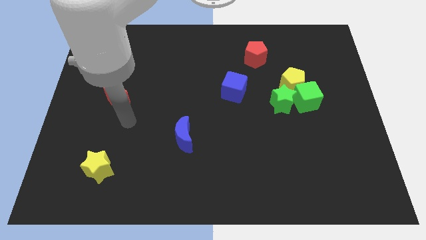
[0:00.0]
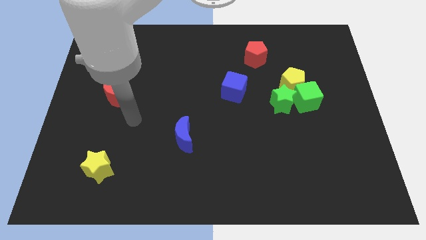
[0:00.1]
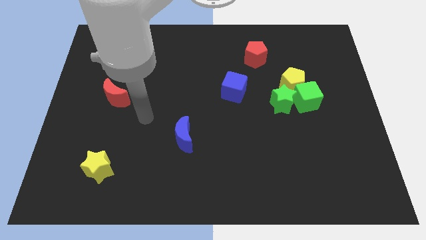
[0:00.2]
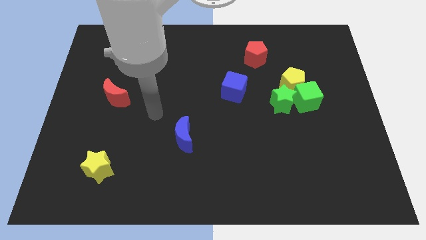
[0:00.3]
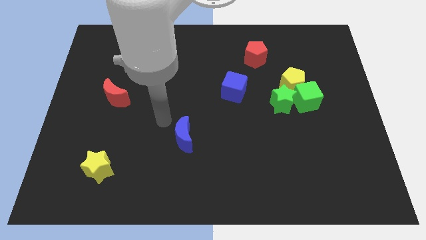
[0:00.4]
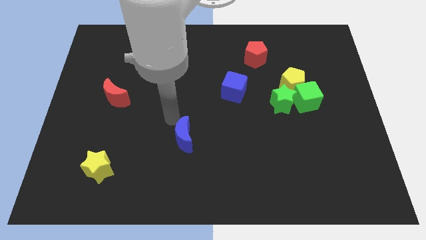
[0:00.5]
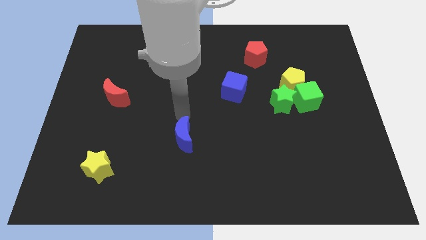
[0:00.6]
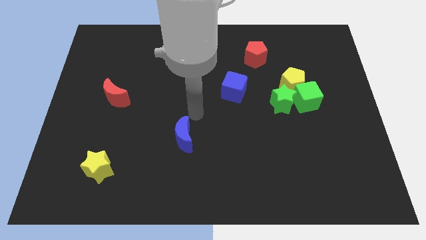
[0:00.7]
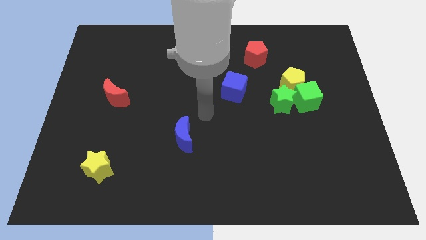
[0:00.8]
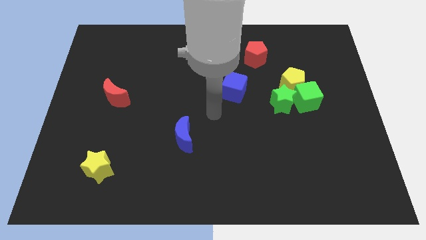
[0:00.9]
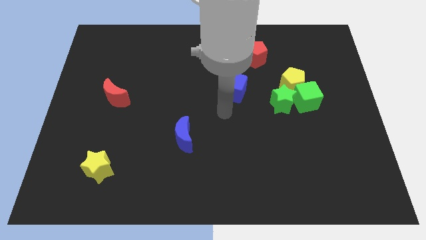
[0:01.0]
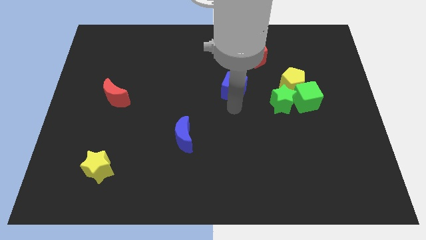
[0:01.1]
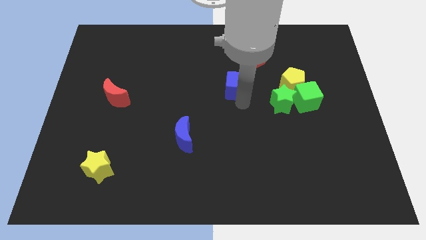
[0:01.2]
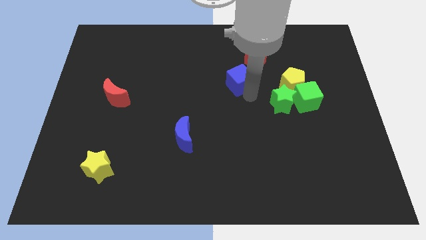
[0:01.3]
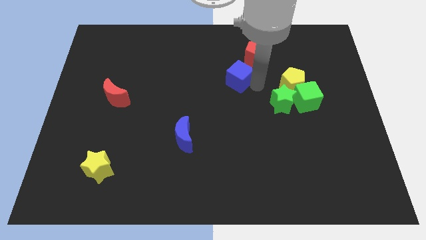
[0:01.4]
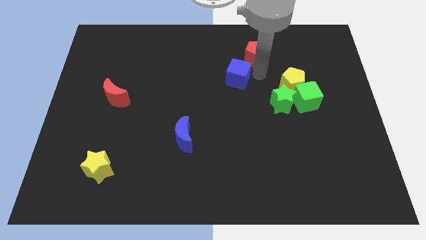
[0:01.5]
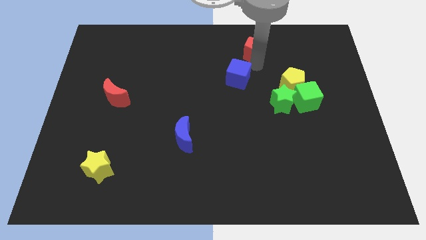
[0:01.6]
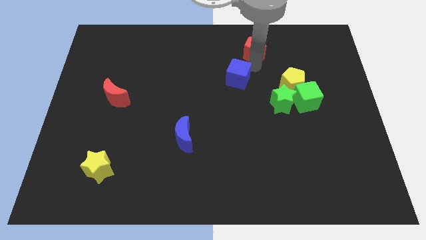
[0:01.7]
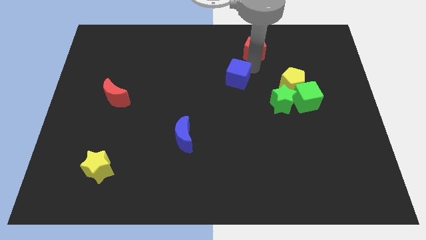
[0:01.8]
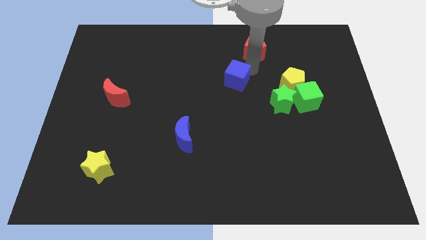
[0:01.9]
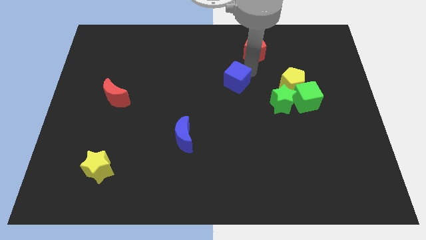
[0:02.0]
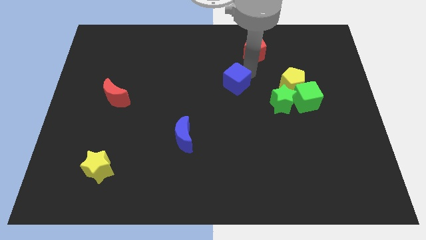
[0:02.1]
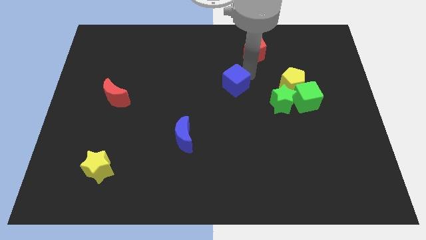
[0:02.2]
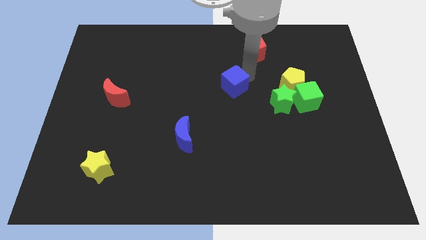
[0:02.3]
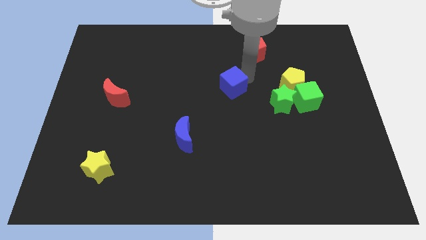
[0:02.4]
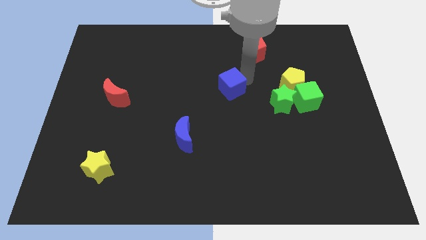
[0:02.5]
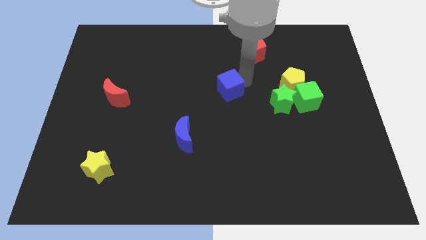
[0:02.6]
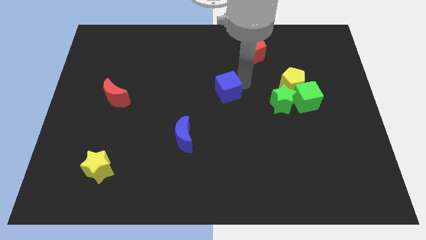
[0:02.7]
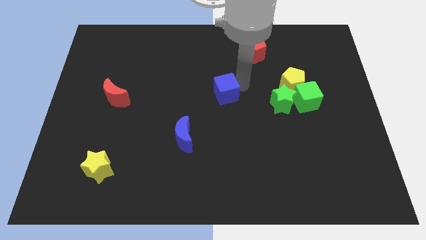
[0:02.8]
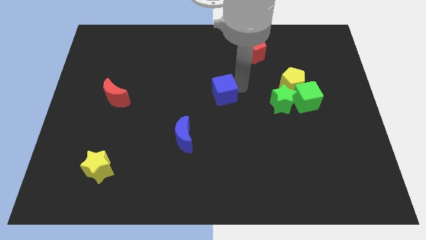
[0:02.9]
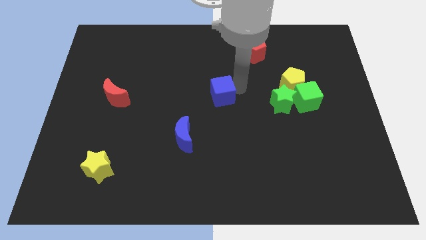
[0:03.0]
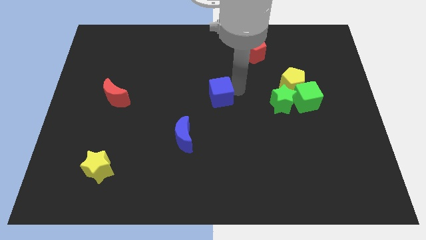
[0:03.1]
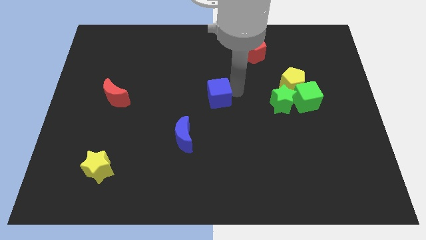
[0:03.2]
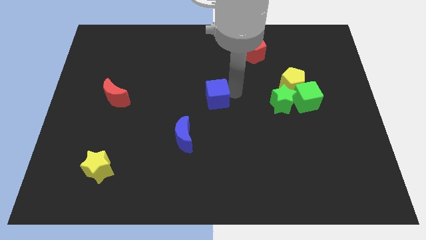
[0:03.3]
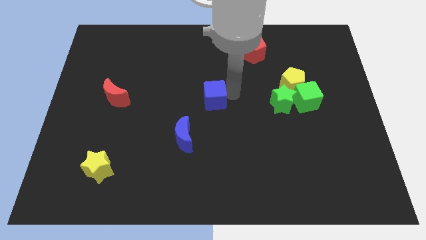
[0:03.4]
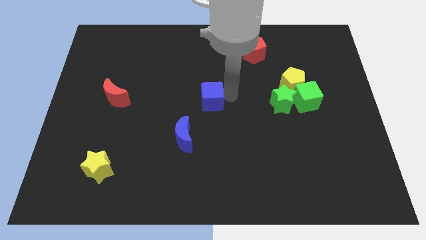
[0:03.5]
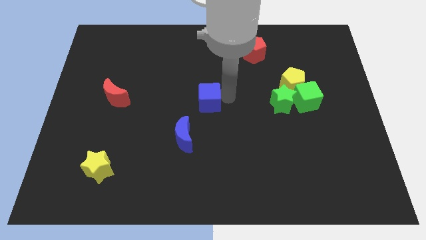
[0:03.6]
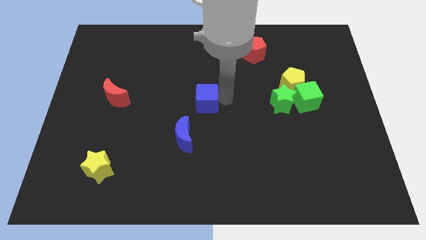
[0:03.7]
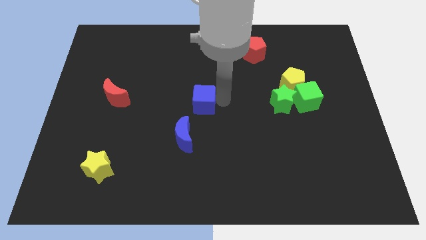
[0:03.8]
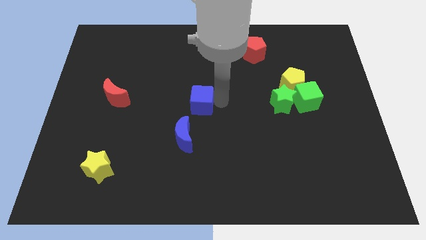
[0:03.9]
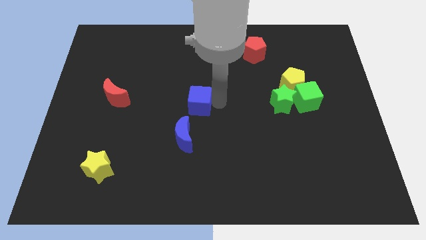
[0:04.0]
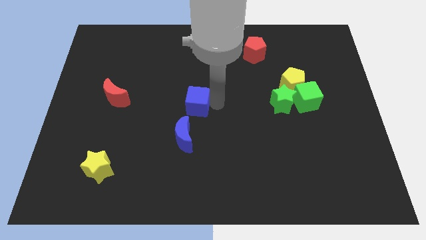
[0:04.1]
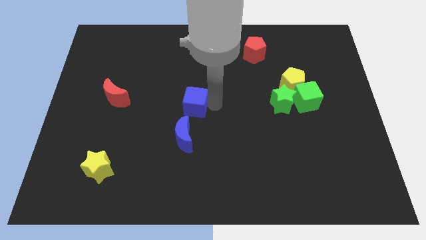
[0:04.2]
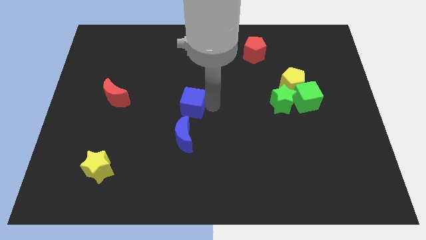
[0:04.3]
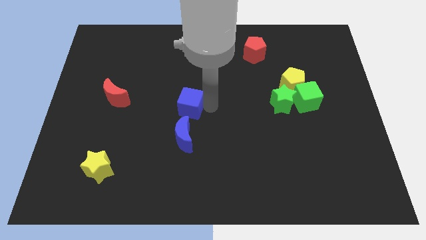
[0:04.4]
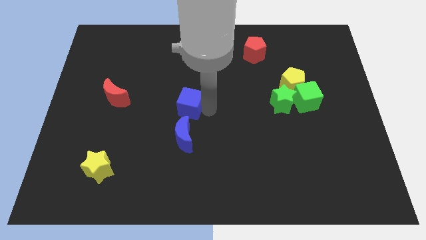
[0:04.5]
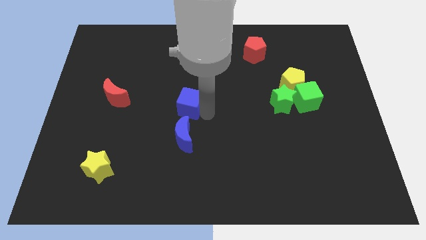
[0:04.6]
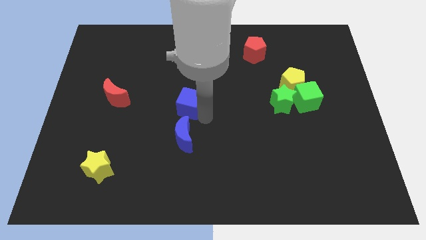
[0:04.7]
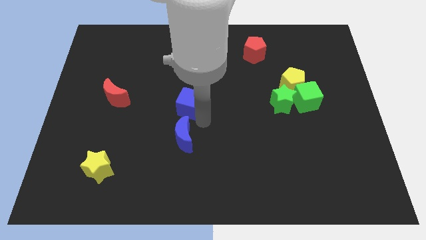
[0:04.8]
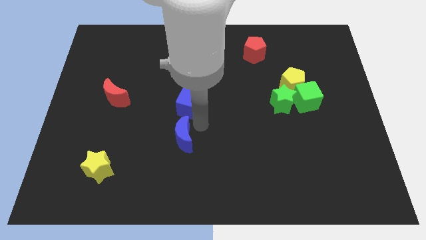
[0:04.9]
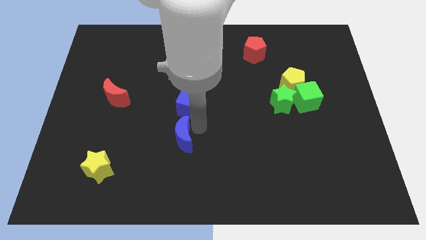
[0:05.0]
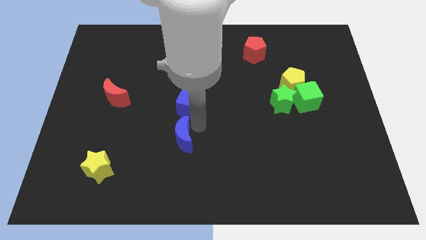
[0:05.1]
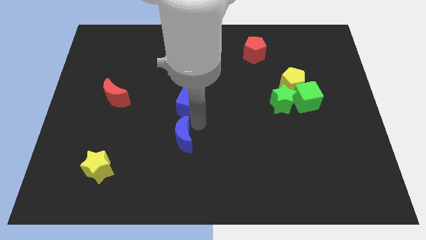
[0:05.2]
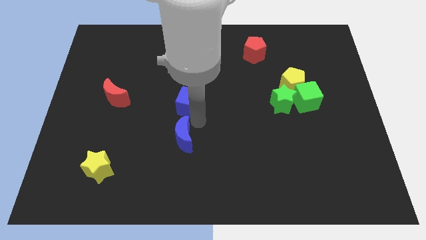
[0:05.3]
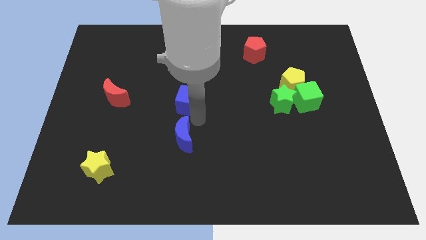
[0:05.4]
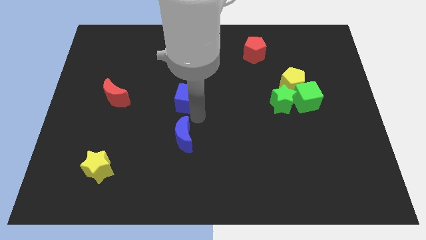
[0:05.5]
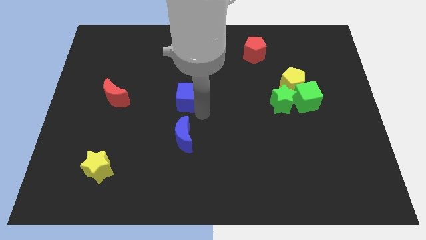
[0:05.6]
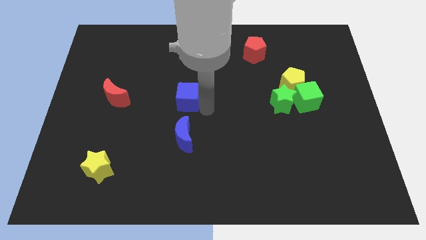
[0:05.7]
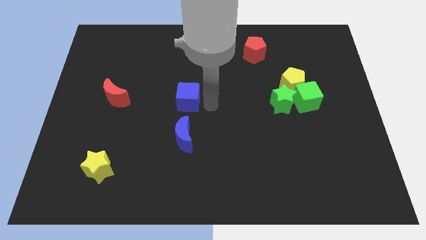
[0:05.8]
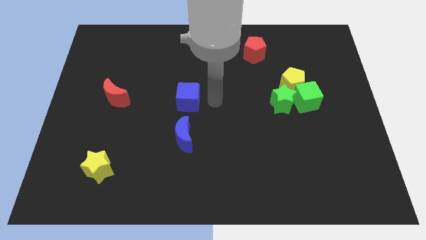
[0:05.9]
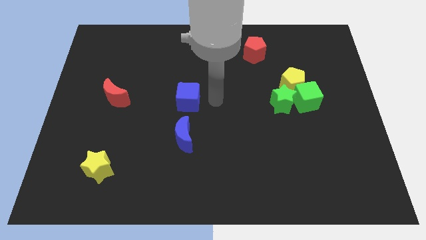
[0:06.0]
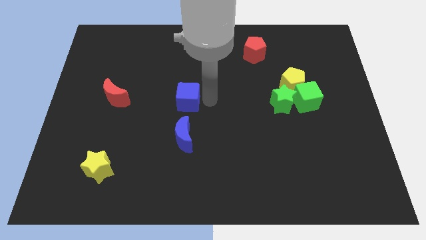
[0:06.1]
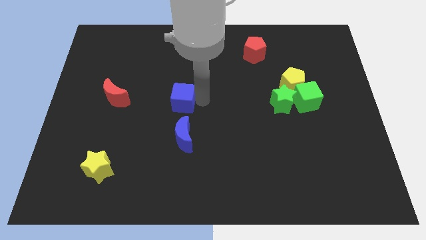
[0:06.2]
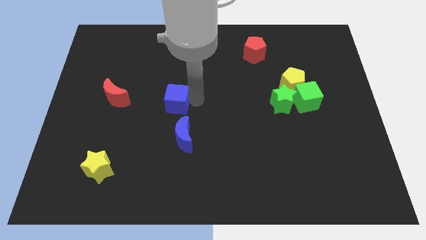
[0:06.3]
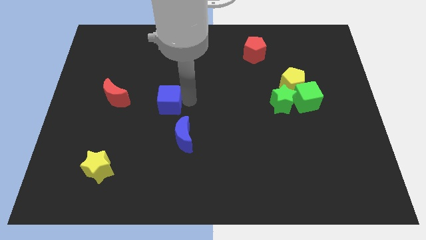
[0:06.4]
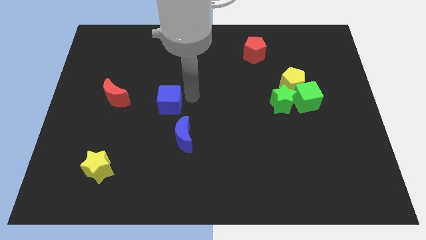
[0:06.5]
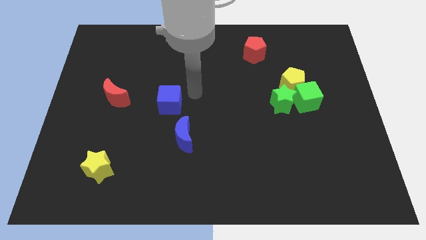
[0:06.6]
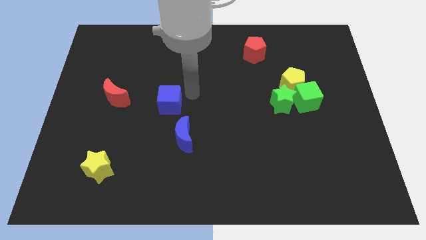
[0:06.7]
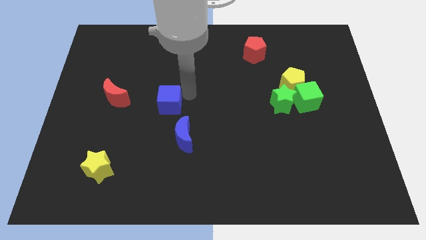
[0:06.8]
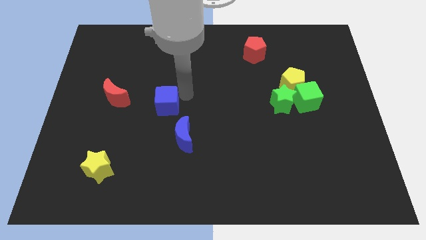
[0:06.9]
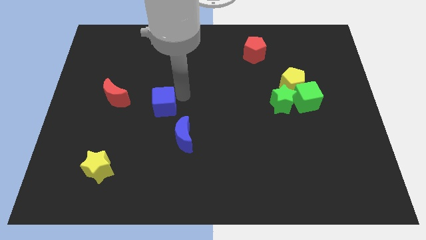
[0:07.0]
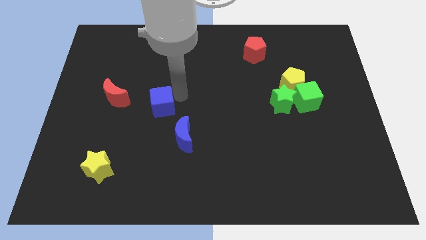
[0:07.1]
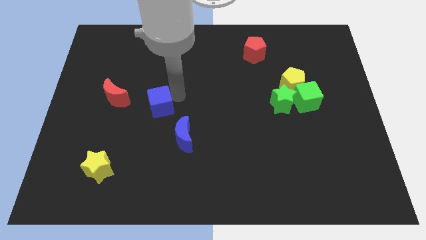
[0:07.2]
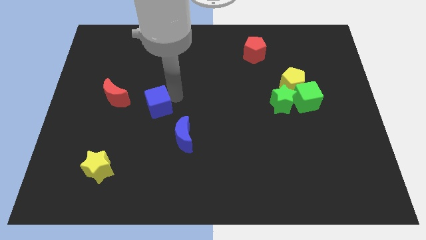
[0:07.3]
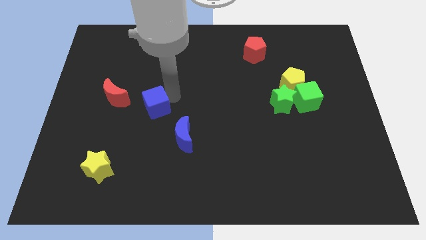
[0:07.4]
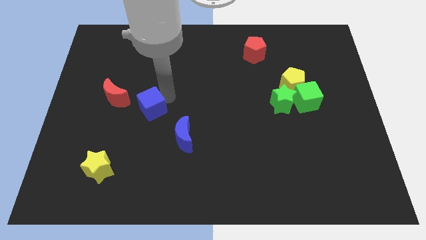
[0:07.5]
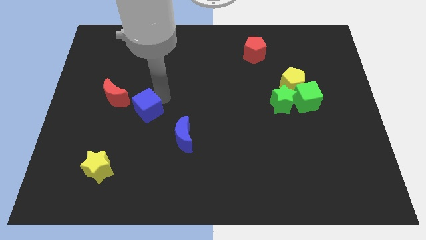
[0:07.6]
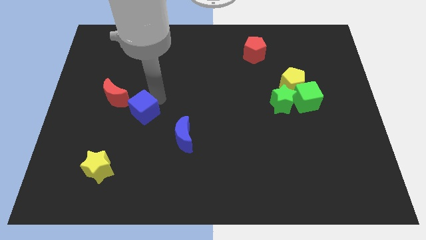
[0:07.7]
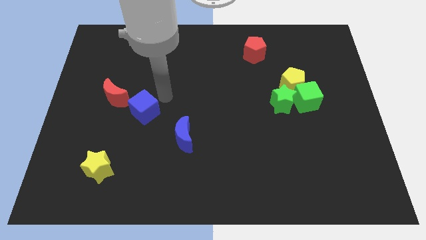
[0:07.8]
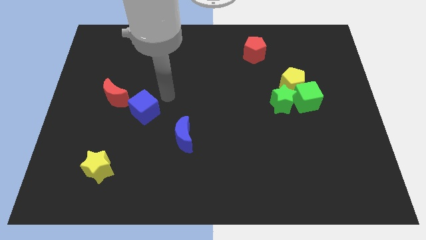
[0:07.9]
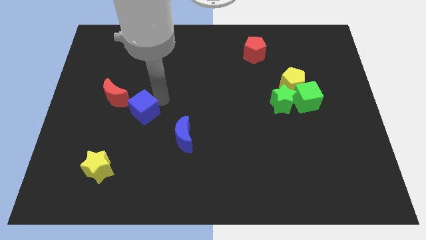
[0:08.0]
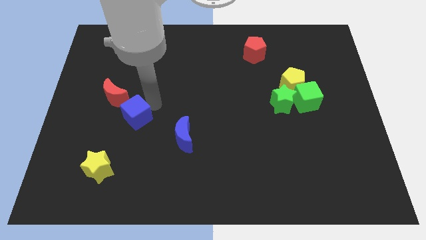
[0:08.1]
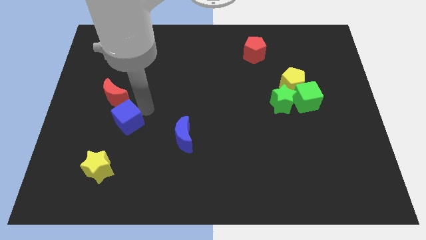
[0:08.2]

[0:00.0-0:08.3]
push the blue cube below the red moon
